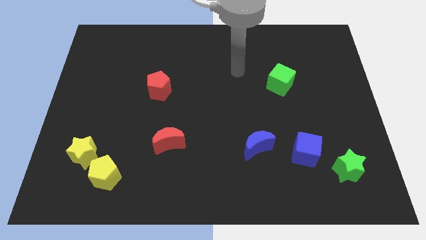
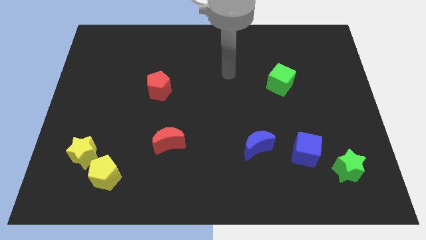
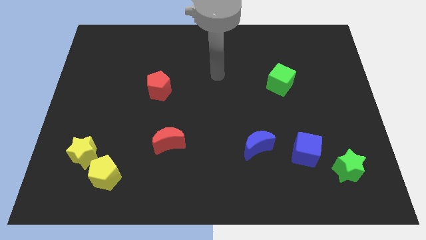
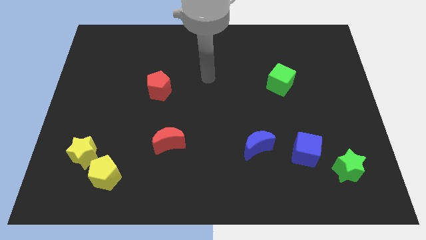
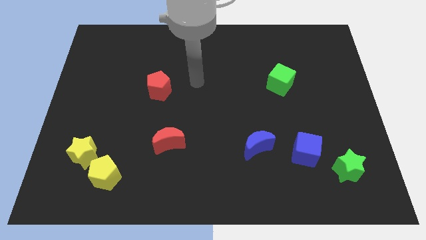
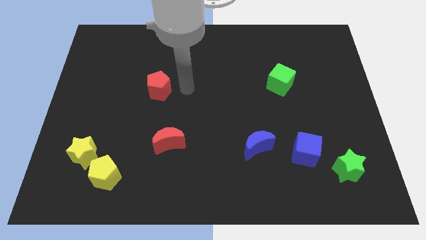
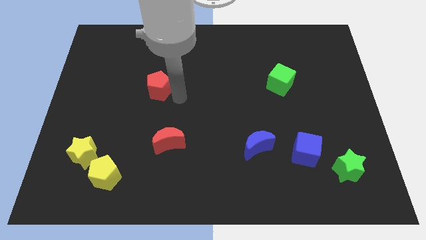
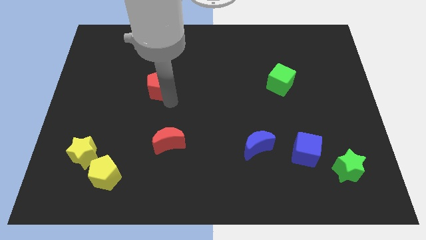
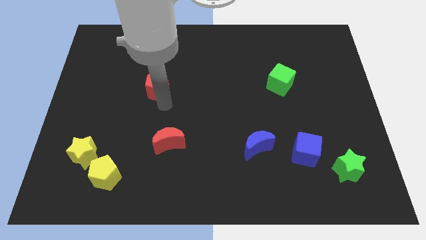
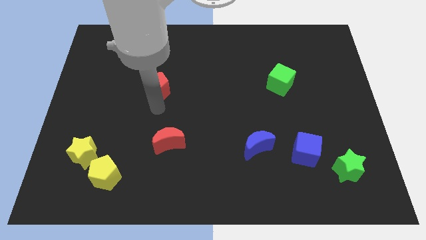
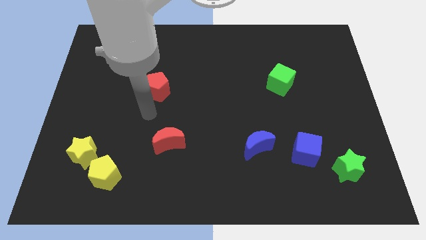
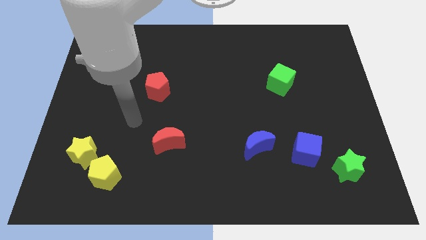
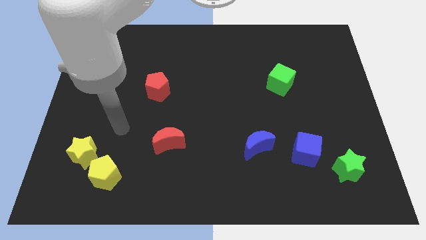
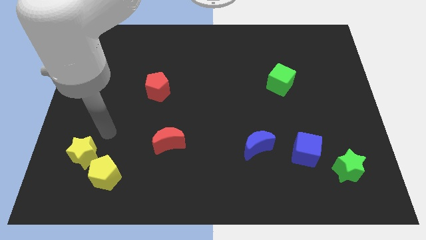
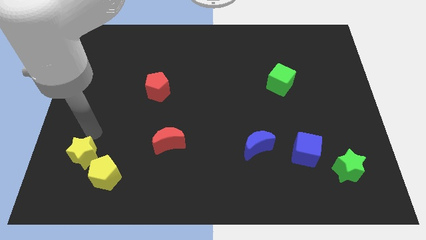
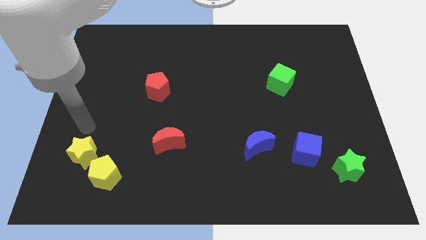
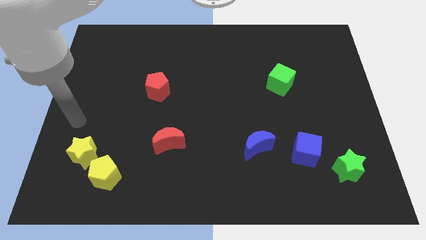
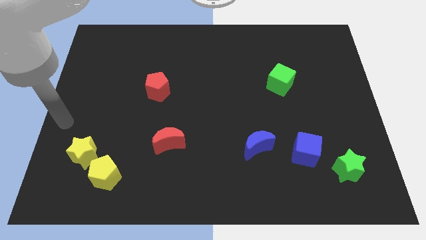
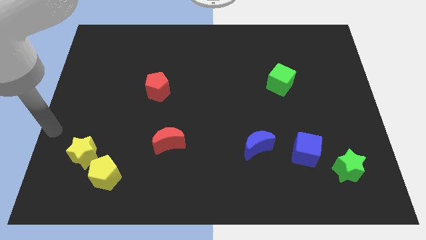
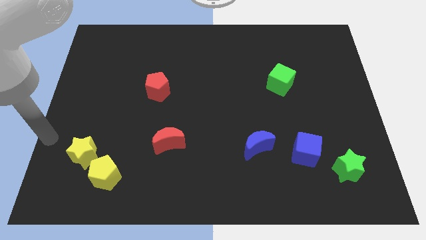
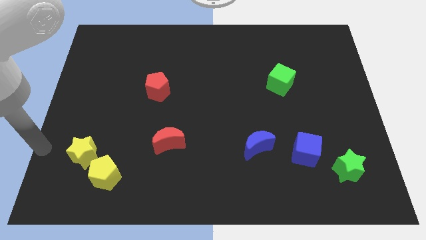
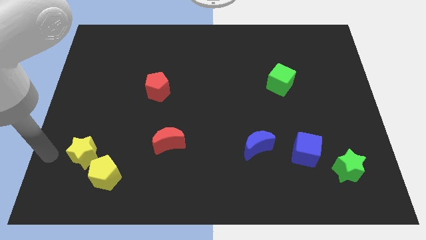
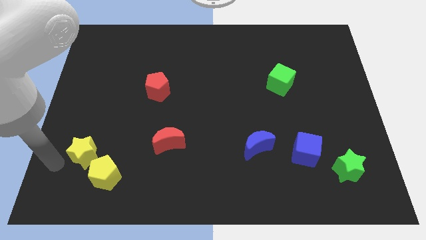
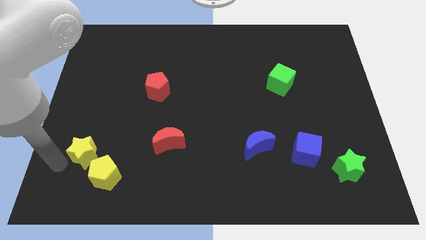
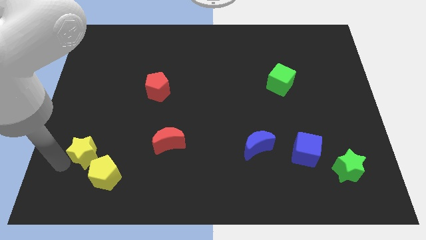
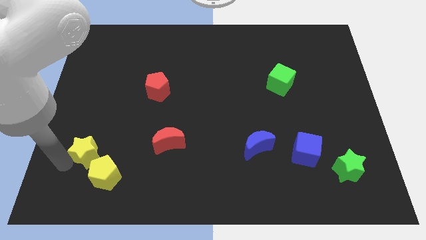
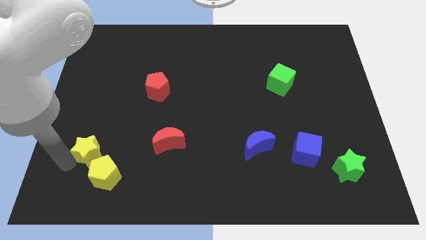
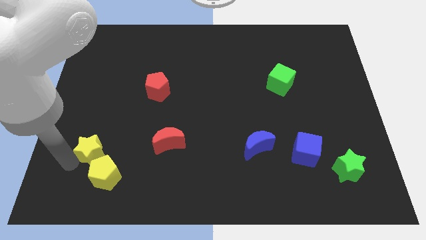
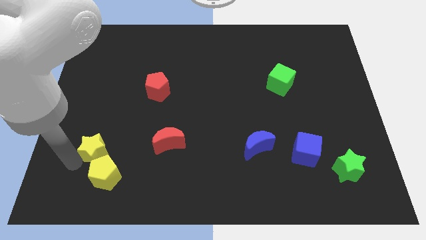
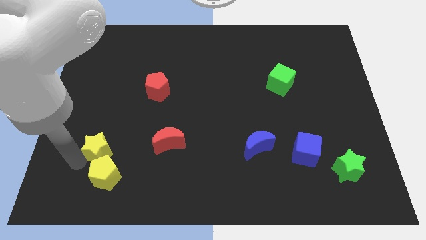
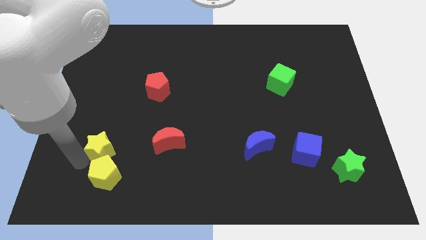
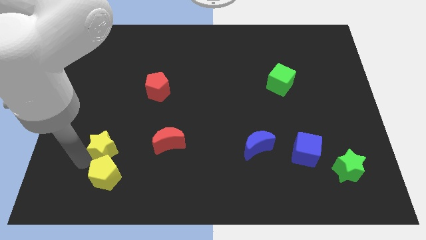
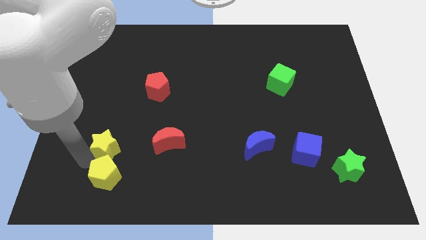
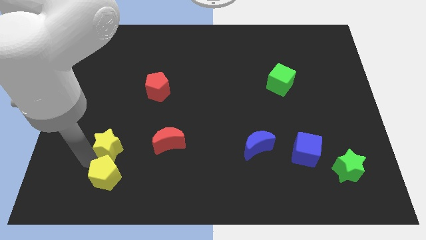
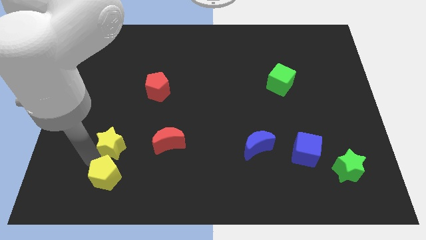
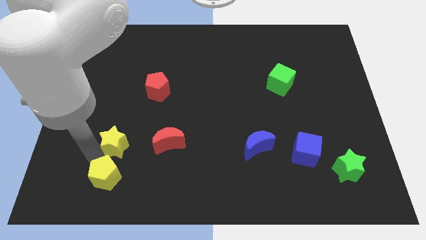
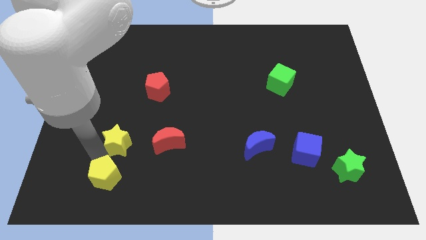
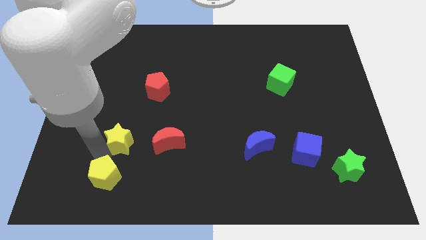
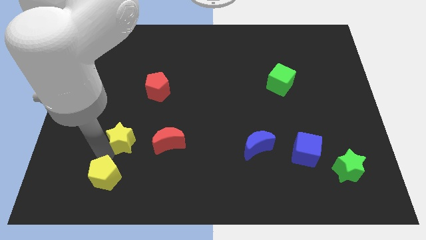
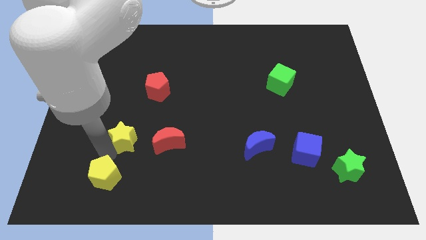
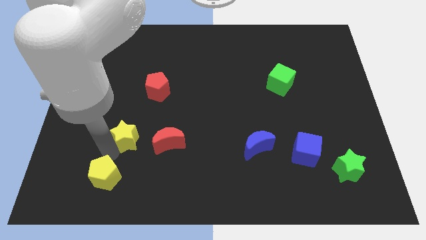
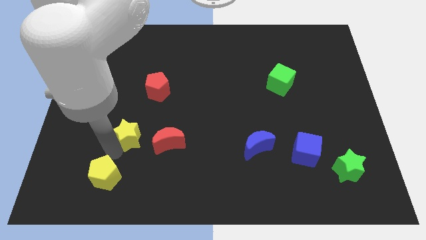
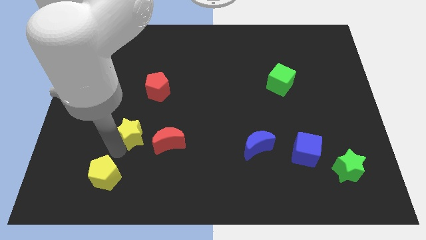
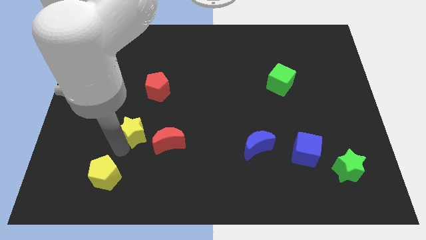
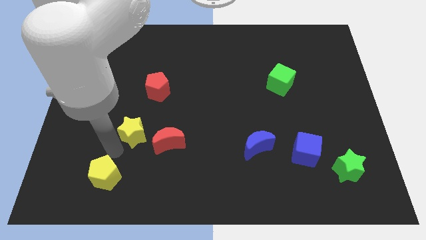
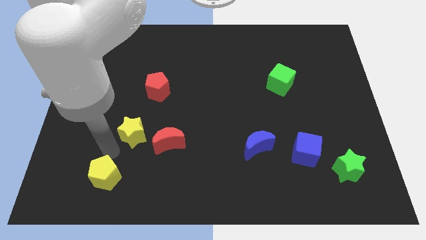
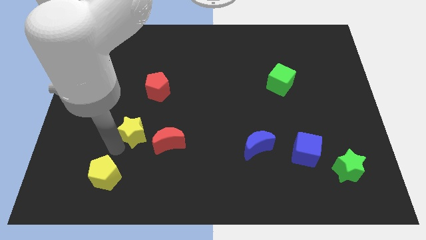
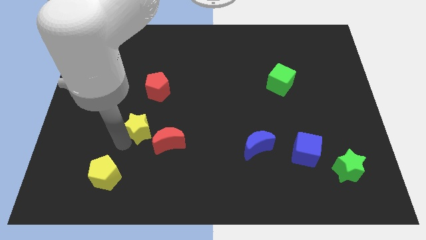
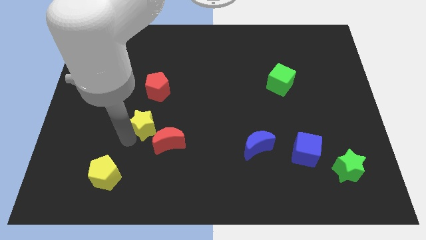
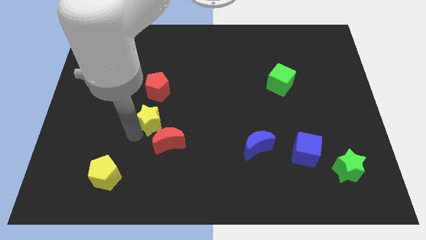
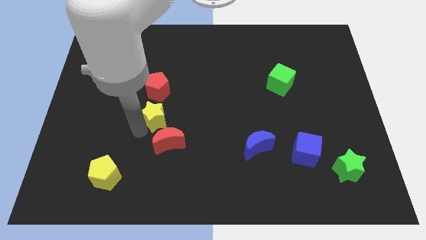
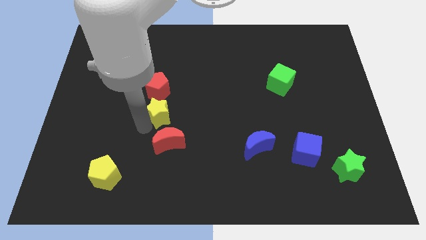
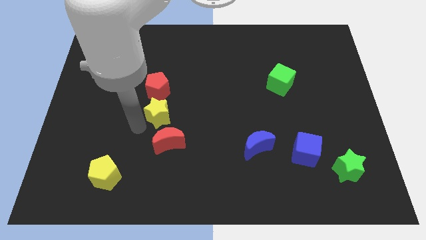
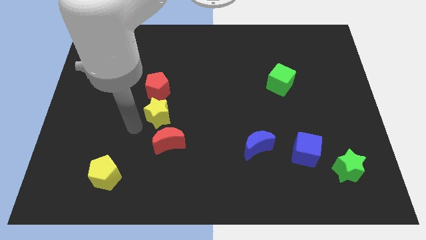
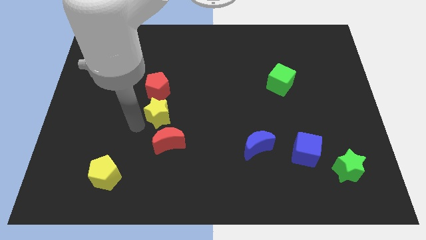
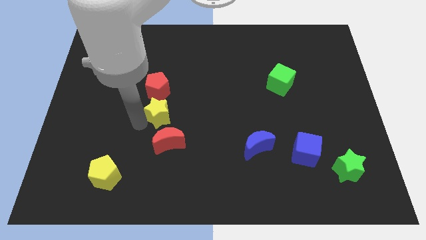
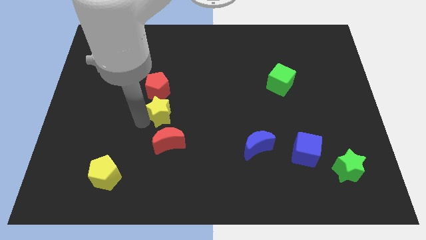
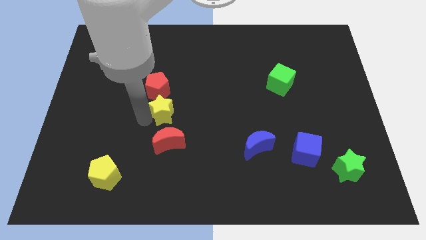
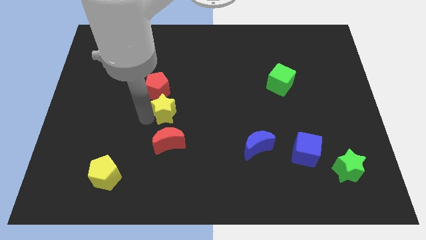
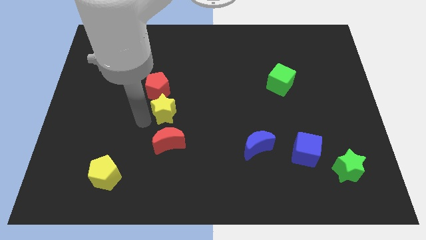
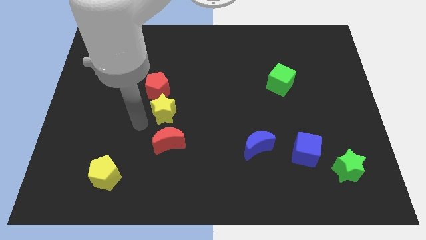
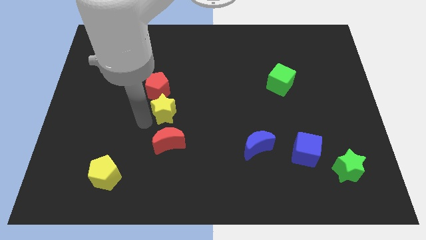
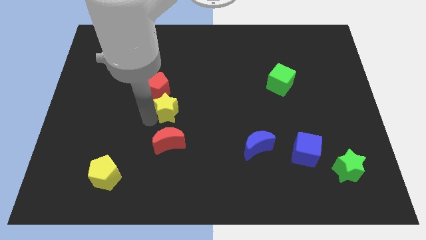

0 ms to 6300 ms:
move the yellow star diagonally up and right

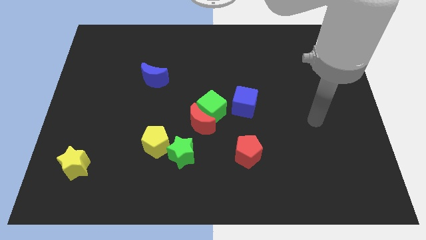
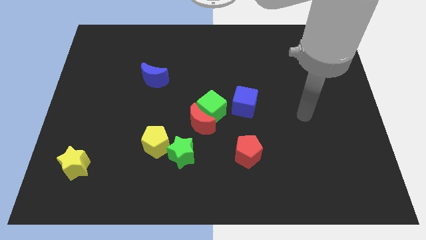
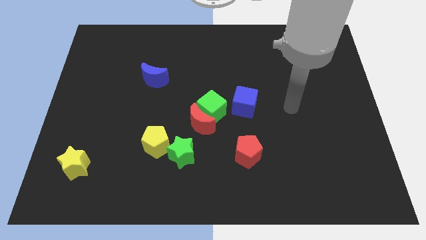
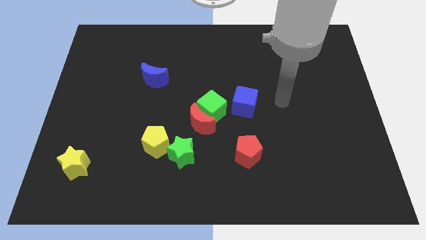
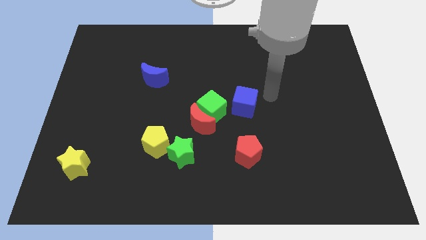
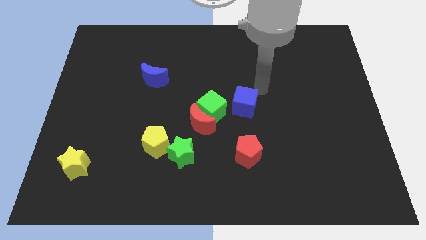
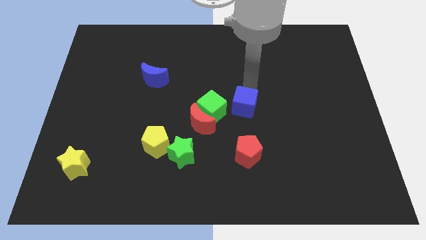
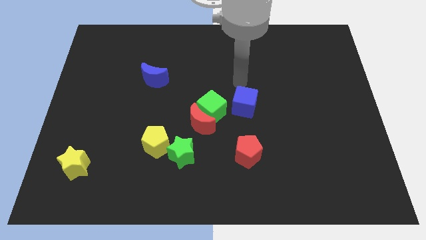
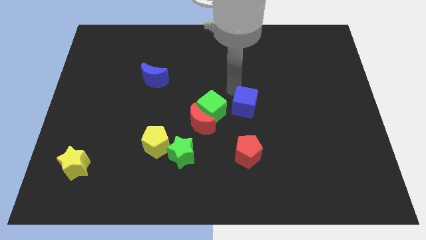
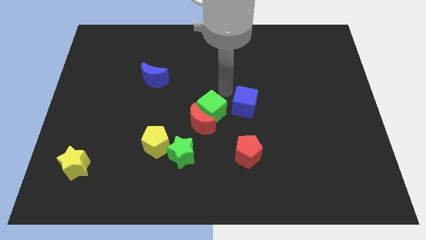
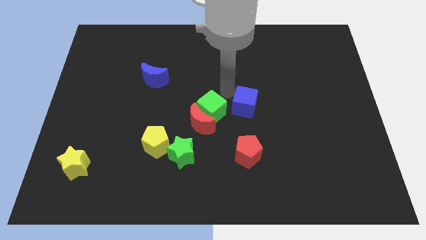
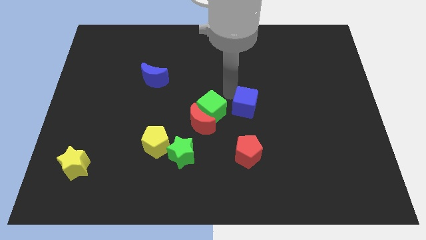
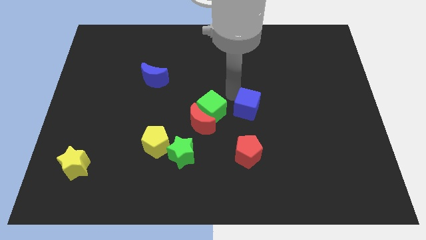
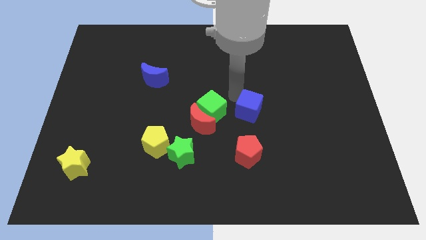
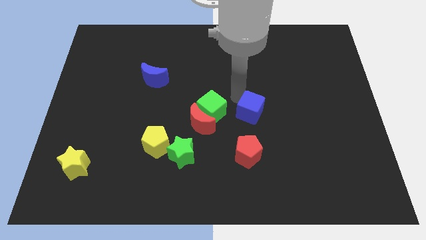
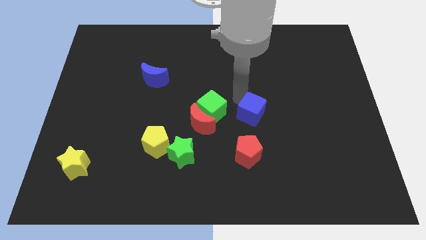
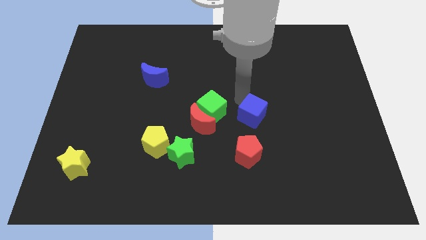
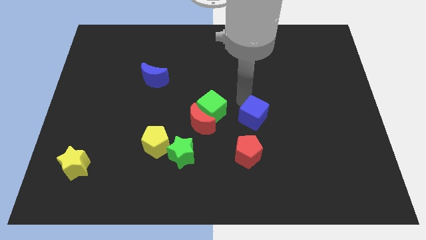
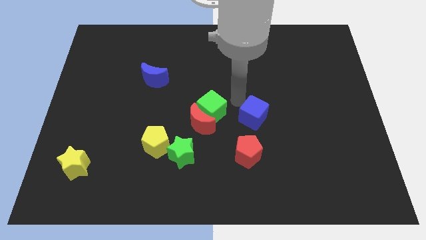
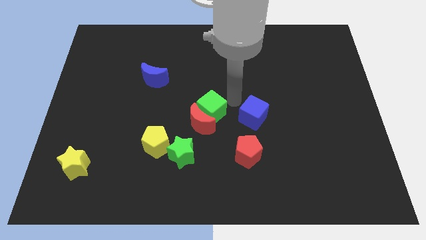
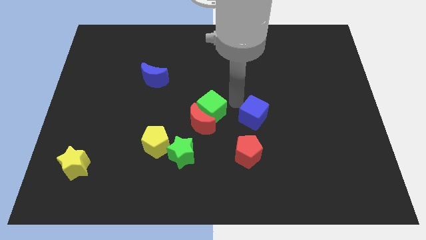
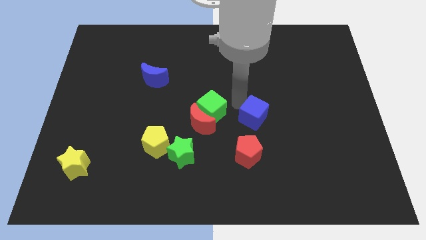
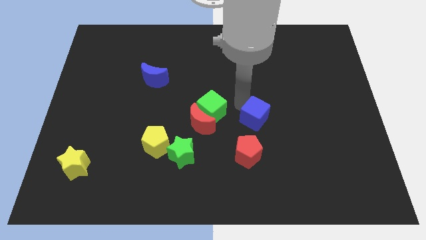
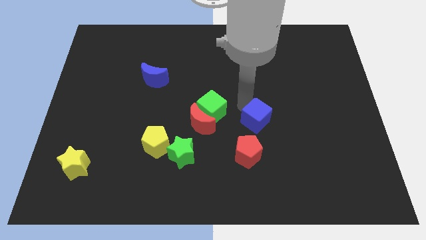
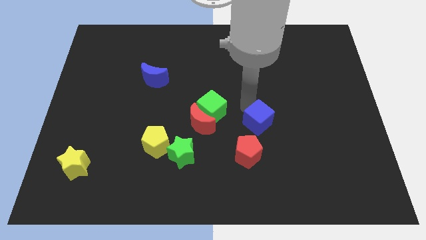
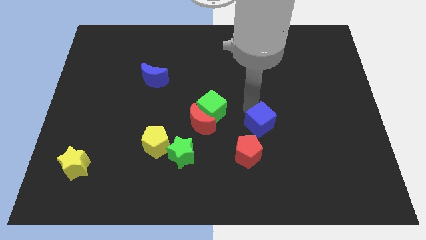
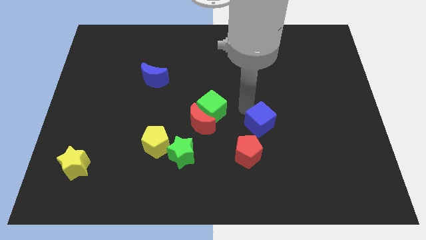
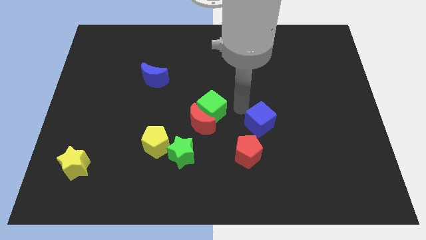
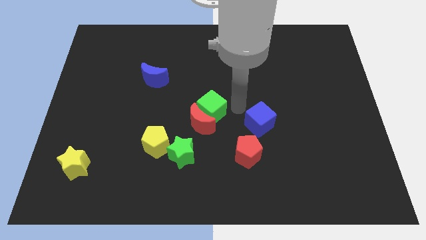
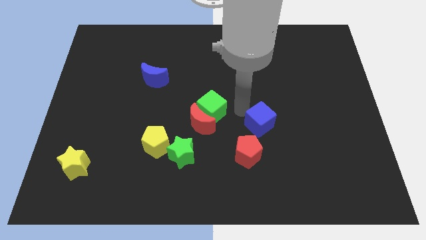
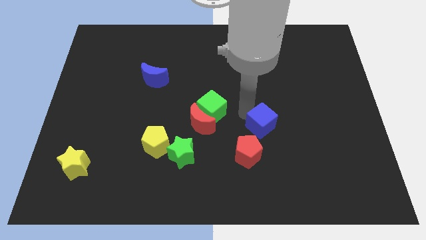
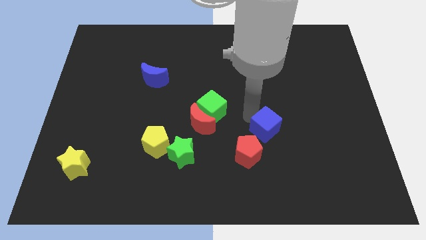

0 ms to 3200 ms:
slightly move the blue cube downwards and to the right diagonally
